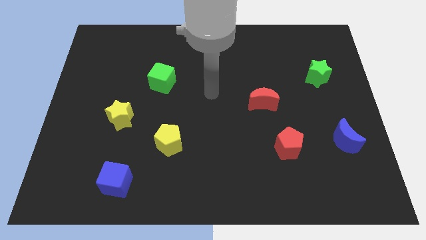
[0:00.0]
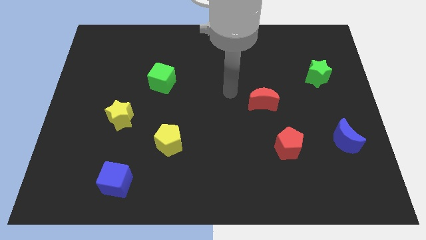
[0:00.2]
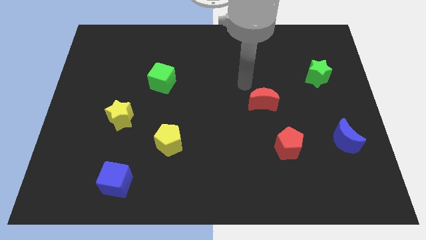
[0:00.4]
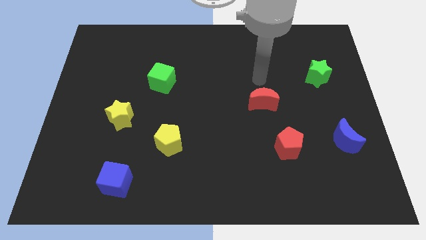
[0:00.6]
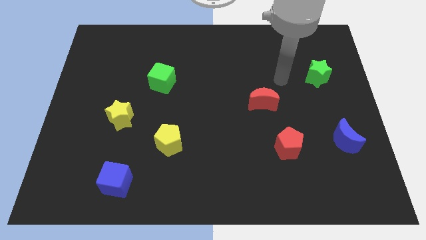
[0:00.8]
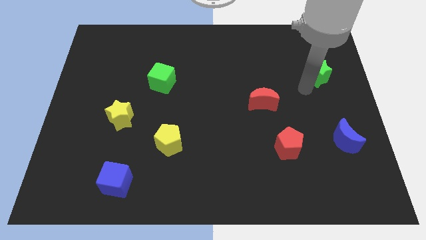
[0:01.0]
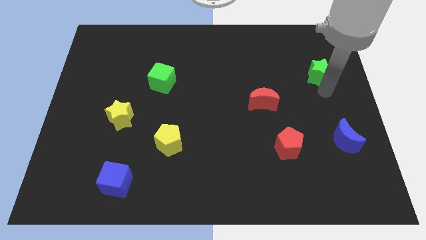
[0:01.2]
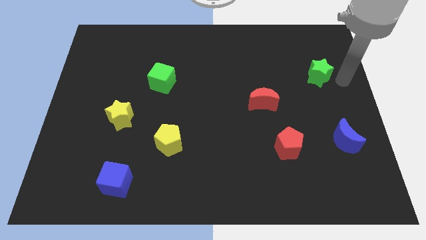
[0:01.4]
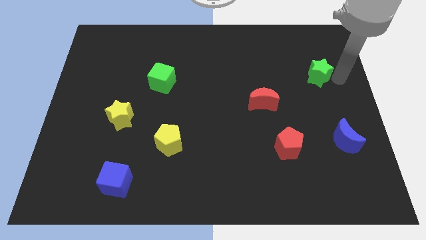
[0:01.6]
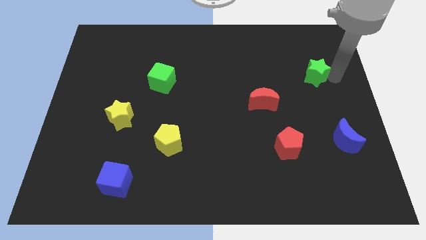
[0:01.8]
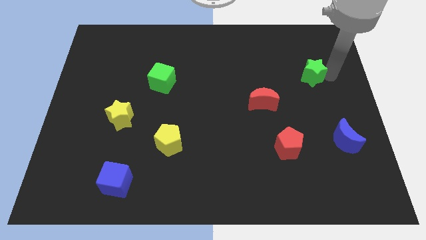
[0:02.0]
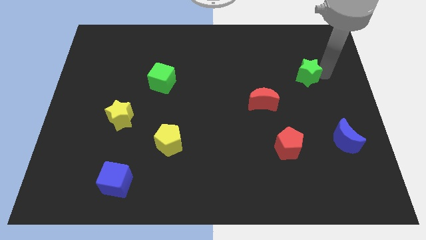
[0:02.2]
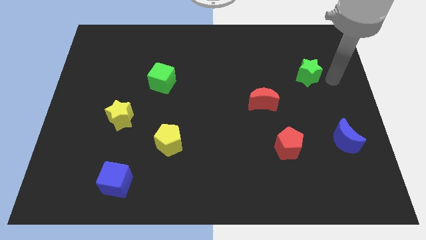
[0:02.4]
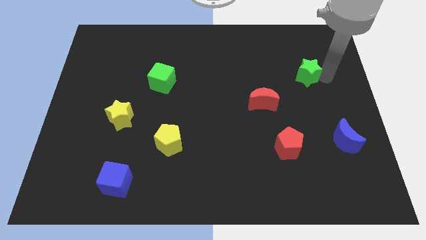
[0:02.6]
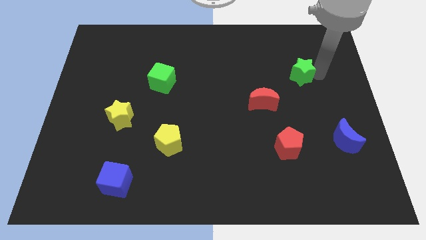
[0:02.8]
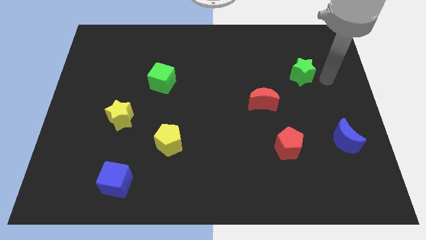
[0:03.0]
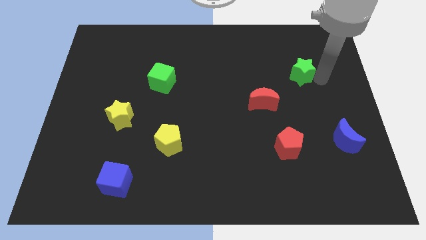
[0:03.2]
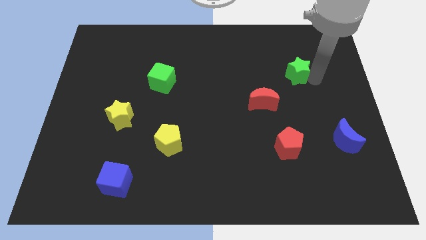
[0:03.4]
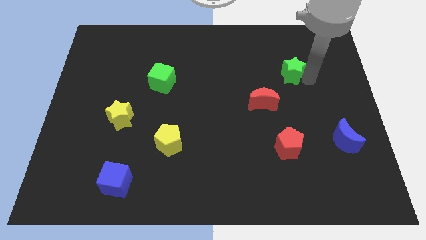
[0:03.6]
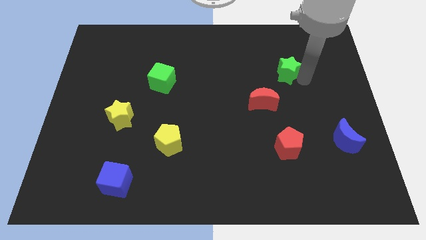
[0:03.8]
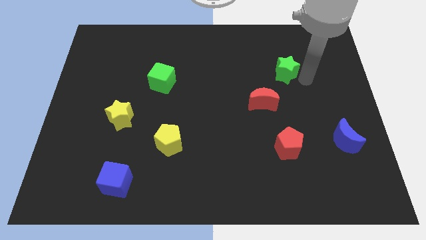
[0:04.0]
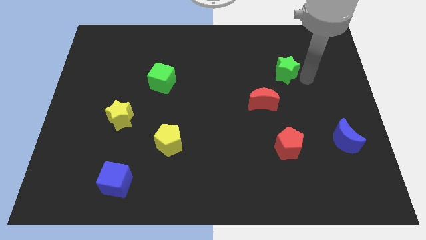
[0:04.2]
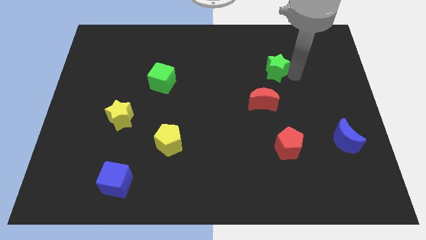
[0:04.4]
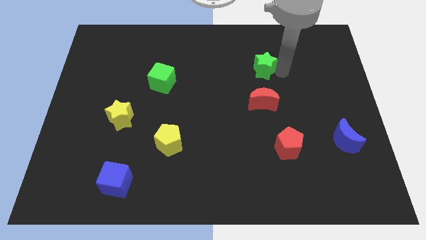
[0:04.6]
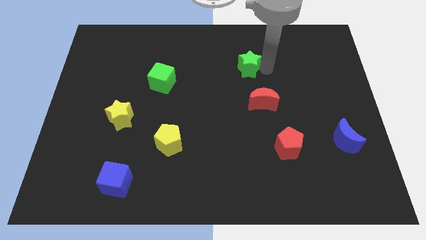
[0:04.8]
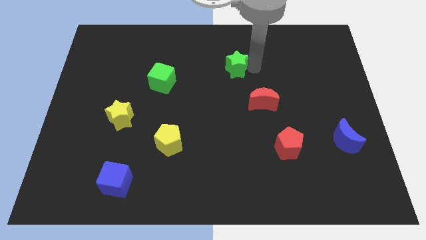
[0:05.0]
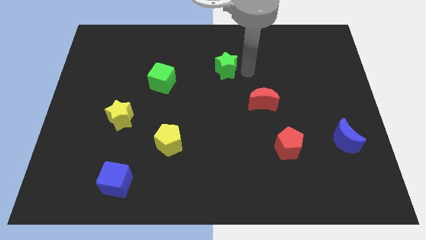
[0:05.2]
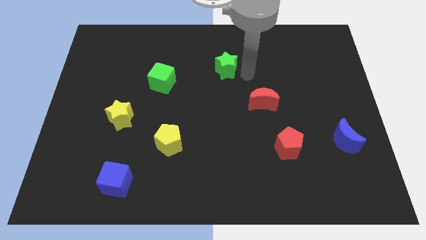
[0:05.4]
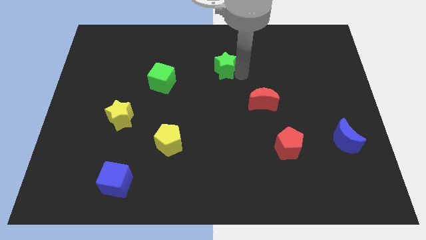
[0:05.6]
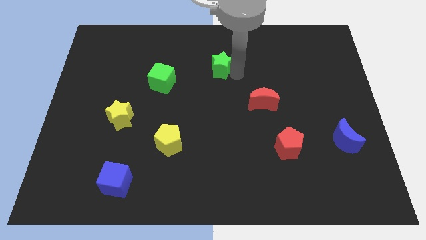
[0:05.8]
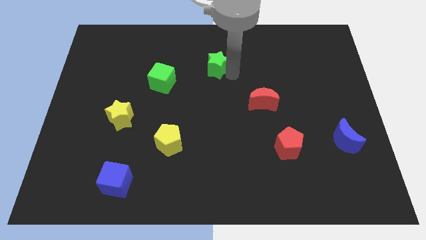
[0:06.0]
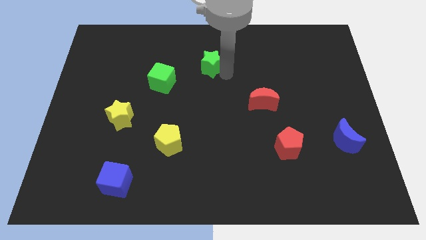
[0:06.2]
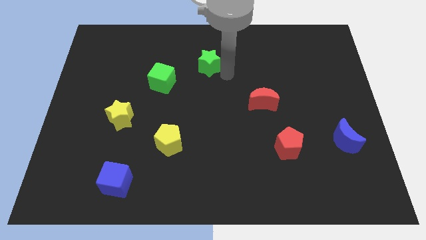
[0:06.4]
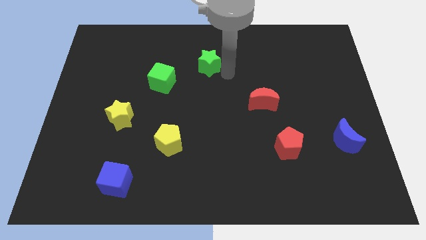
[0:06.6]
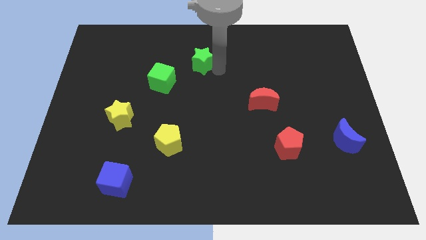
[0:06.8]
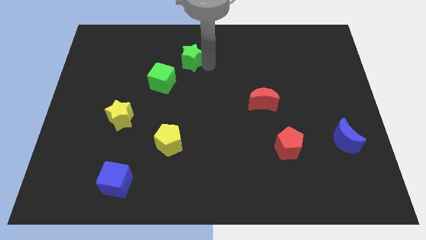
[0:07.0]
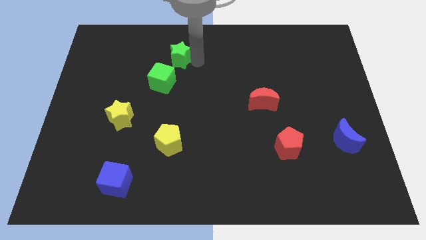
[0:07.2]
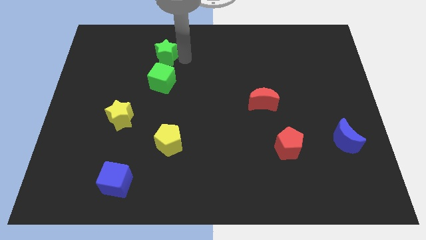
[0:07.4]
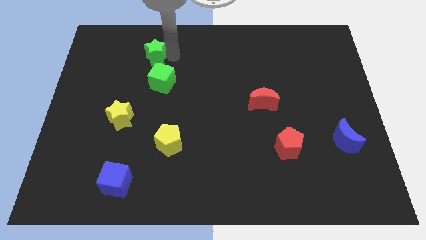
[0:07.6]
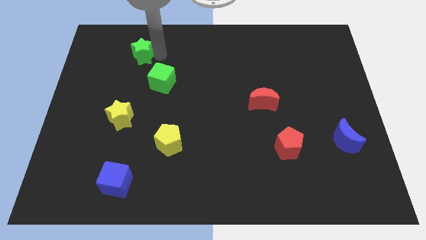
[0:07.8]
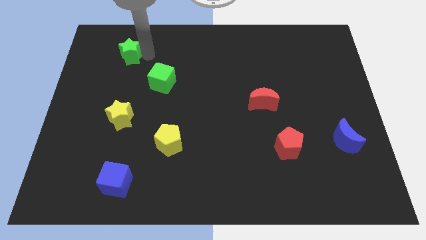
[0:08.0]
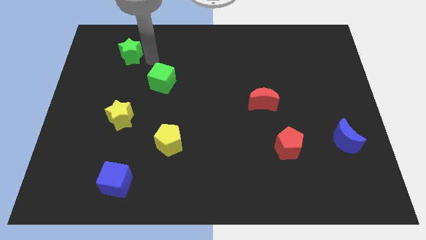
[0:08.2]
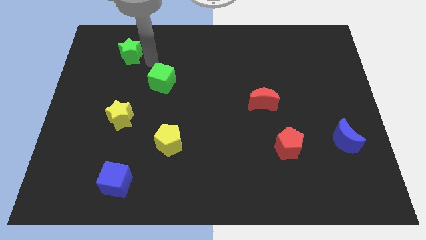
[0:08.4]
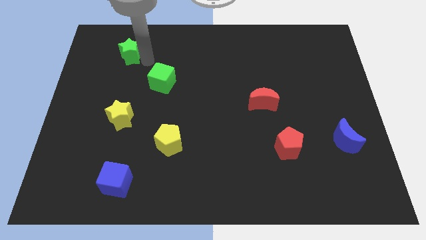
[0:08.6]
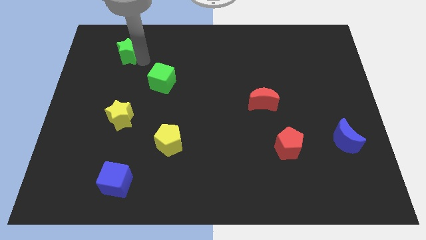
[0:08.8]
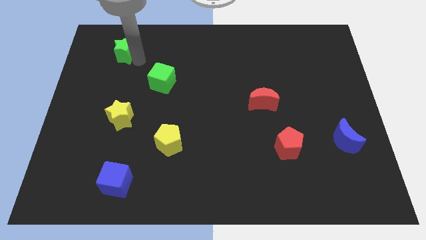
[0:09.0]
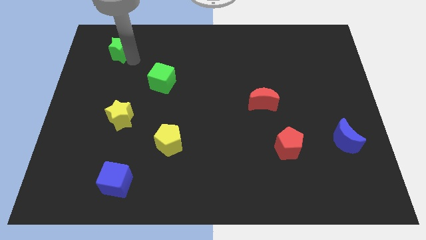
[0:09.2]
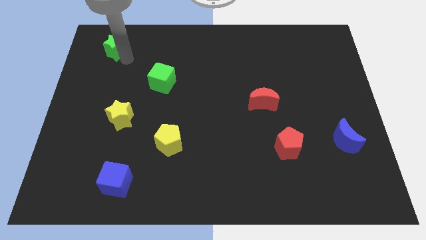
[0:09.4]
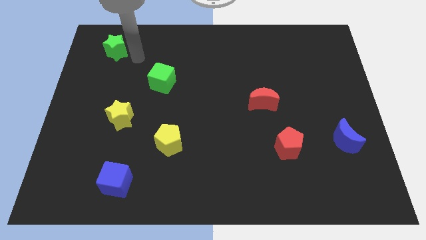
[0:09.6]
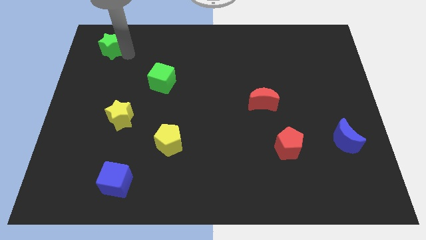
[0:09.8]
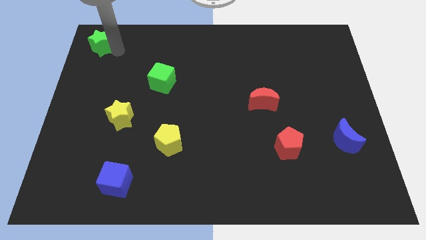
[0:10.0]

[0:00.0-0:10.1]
slide the green star to the top left corner

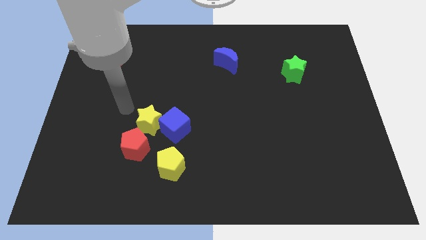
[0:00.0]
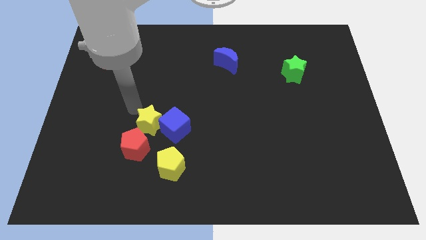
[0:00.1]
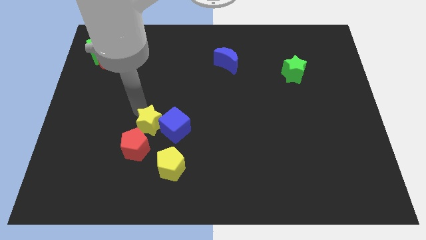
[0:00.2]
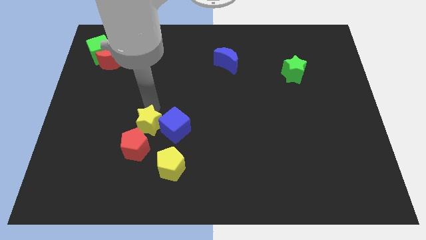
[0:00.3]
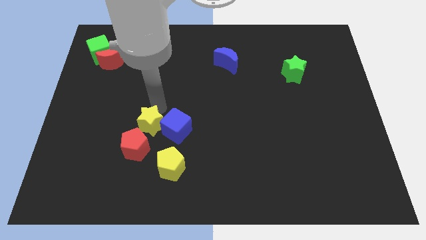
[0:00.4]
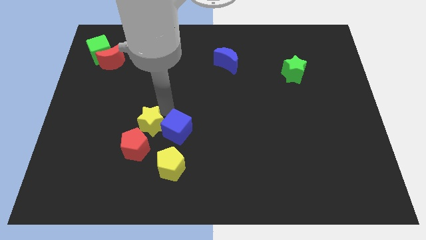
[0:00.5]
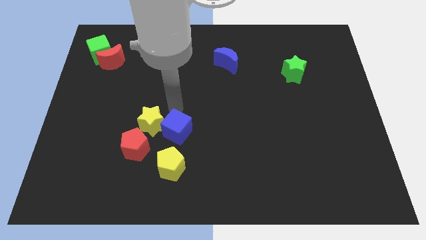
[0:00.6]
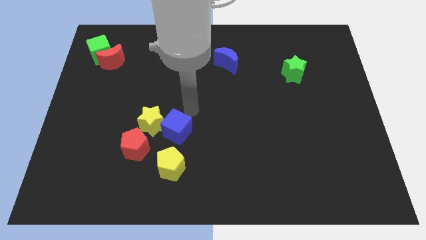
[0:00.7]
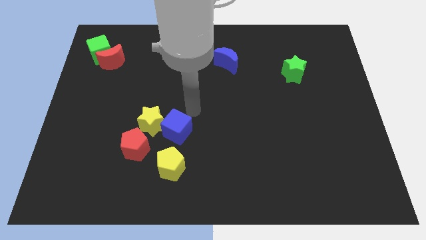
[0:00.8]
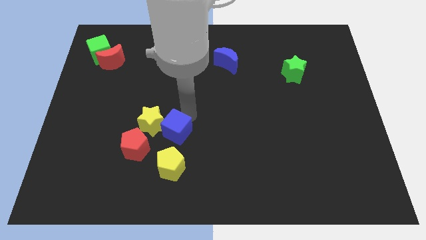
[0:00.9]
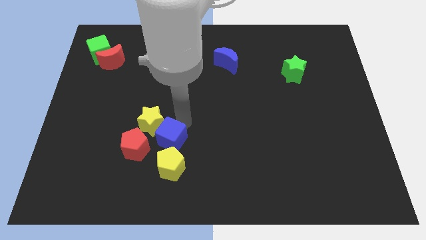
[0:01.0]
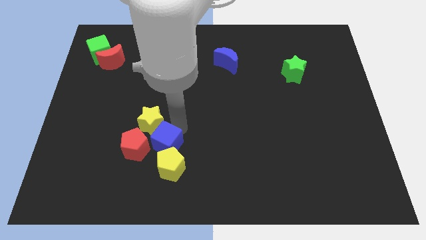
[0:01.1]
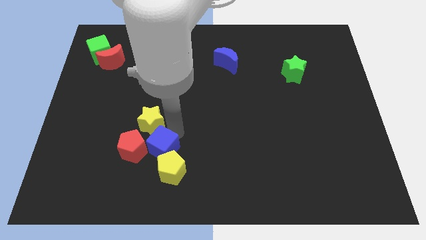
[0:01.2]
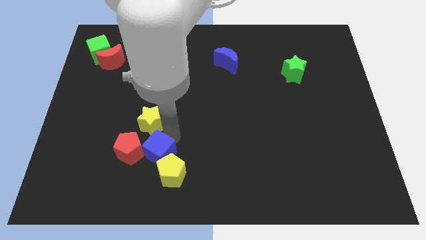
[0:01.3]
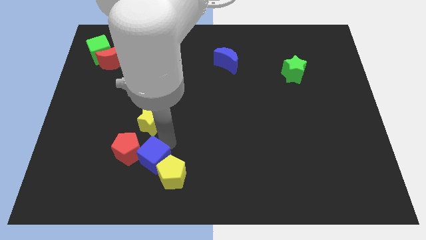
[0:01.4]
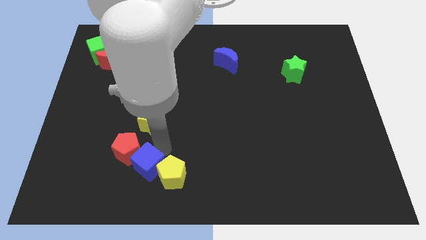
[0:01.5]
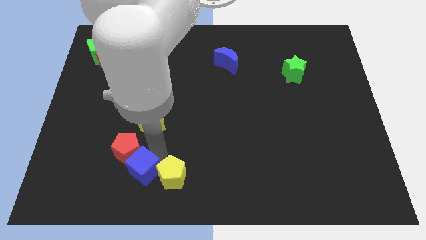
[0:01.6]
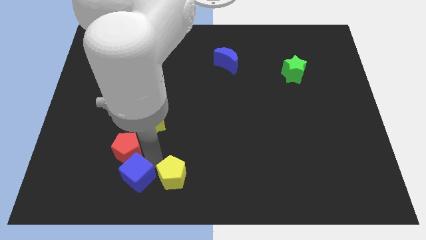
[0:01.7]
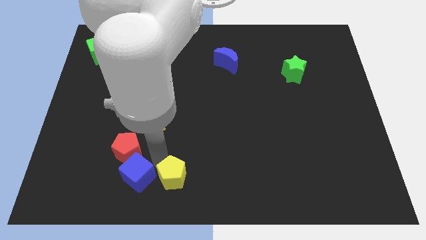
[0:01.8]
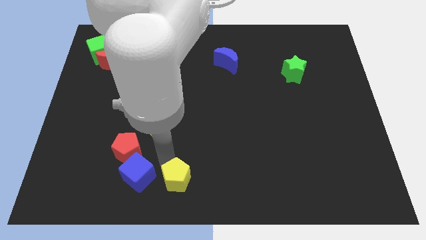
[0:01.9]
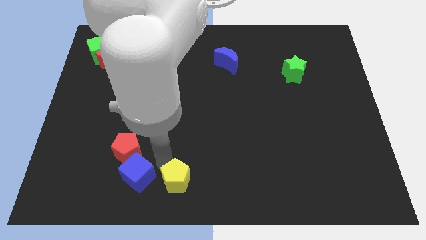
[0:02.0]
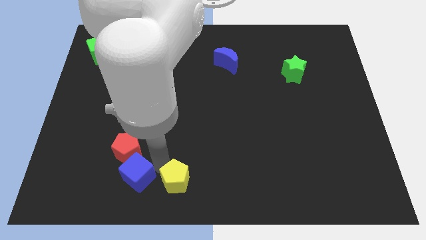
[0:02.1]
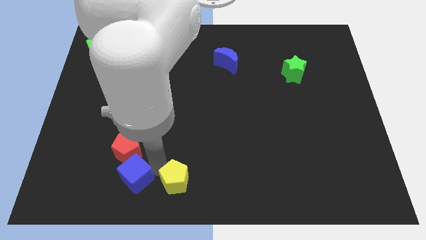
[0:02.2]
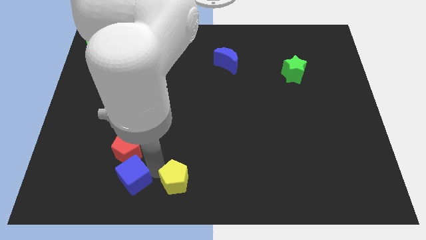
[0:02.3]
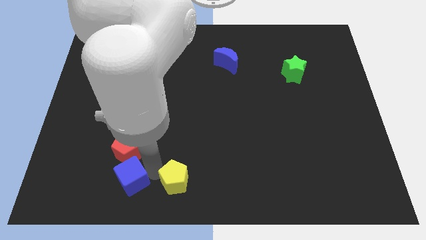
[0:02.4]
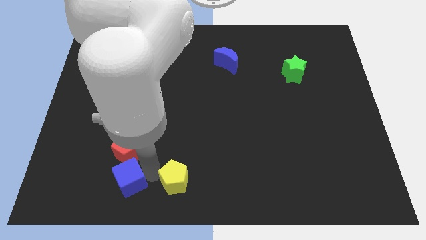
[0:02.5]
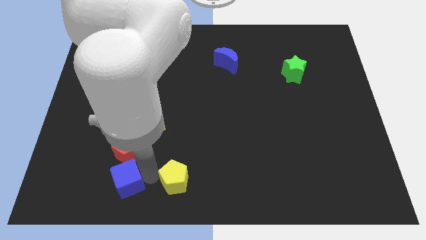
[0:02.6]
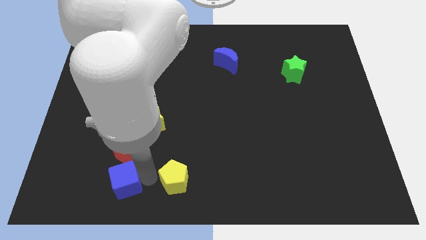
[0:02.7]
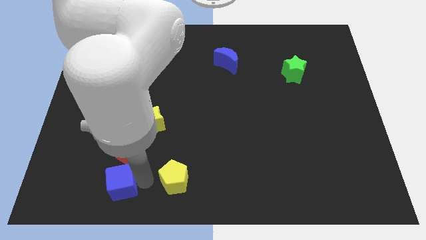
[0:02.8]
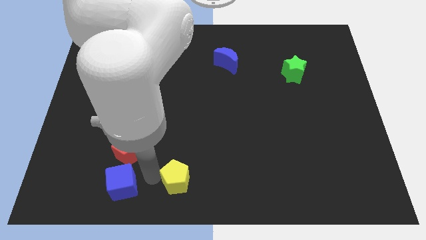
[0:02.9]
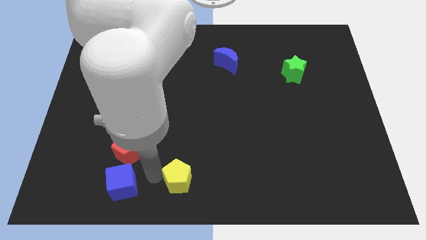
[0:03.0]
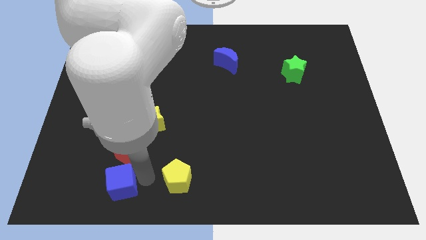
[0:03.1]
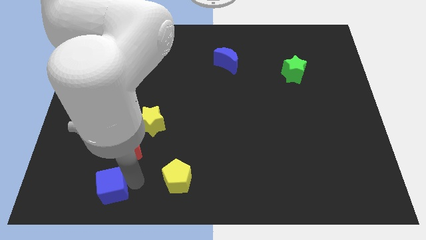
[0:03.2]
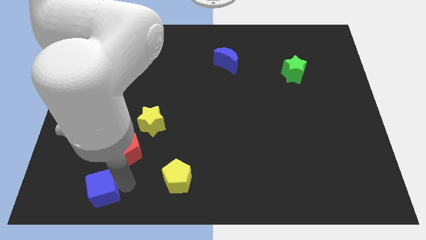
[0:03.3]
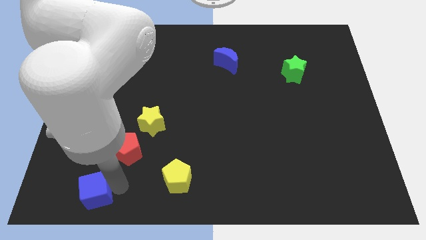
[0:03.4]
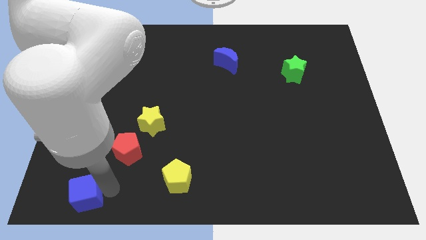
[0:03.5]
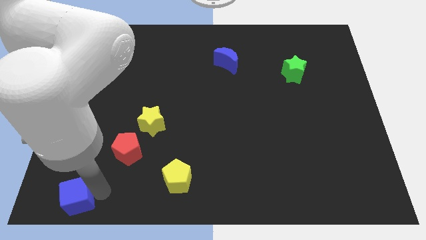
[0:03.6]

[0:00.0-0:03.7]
move the blue cube to the bottom left of the board
